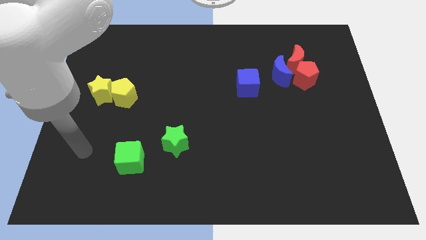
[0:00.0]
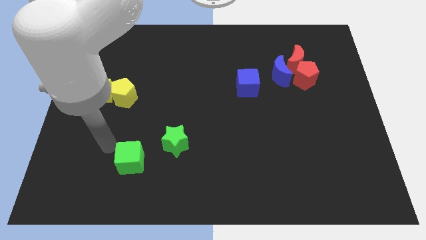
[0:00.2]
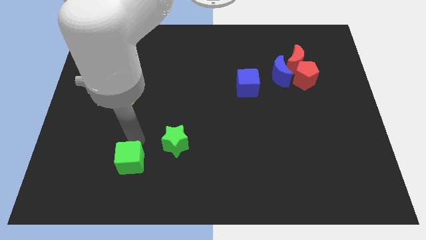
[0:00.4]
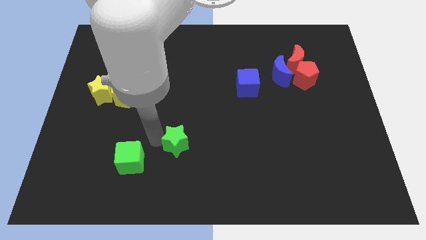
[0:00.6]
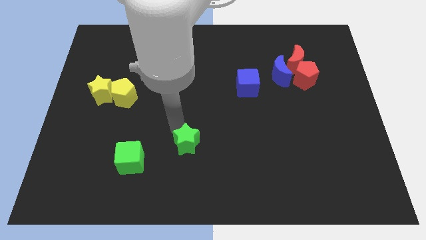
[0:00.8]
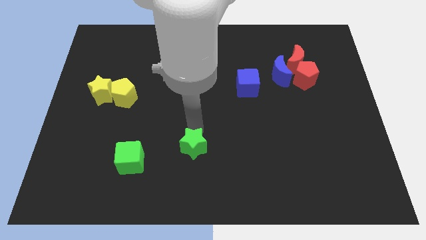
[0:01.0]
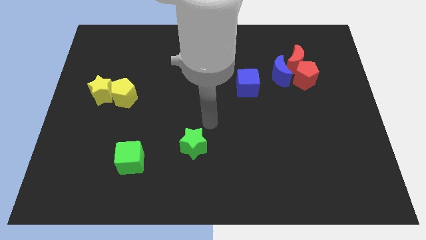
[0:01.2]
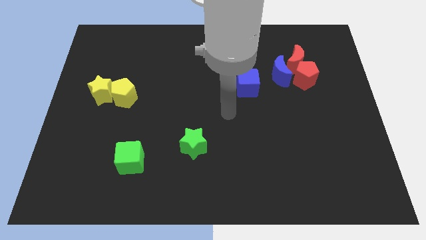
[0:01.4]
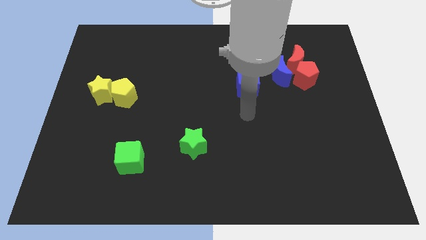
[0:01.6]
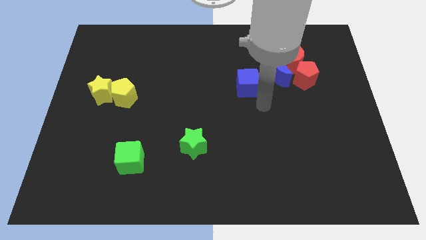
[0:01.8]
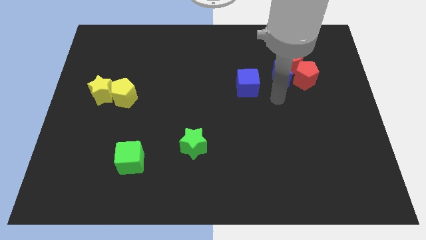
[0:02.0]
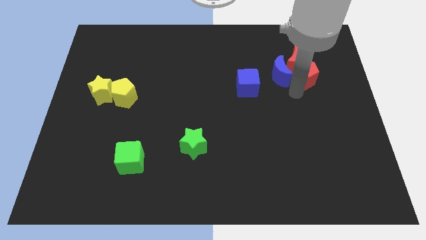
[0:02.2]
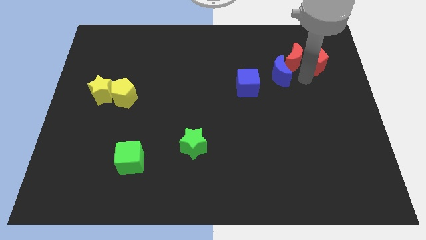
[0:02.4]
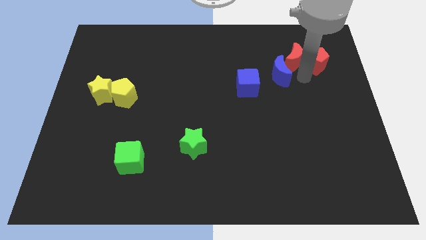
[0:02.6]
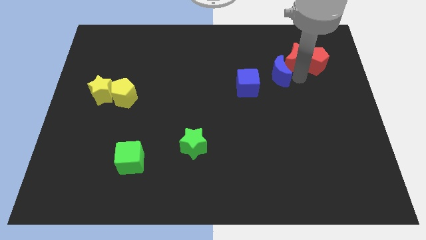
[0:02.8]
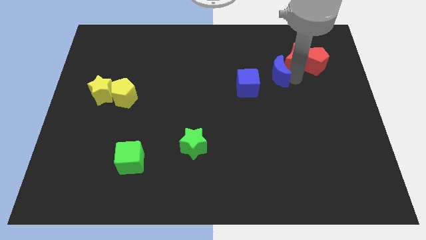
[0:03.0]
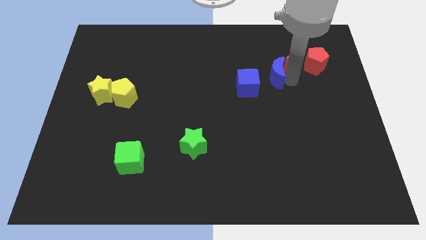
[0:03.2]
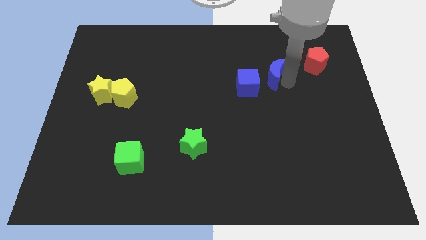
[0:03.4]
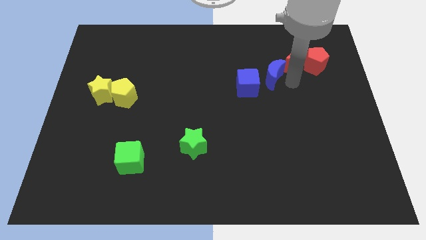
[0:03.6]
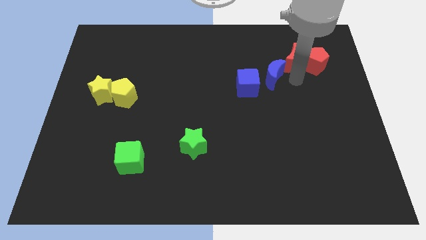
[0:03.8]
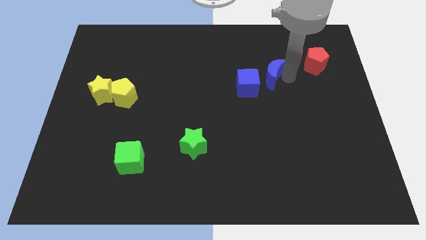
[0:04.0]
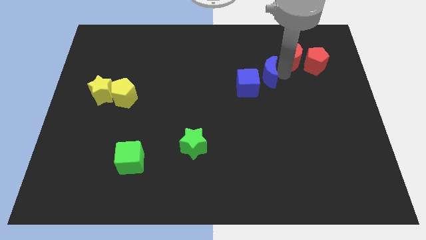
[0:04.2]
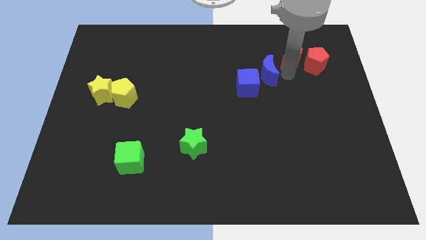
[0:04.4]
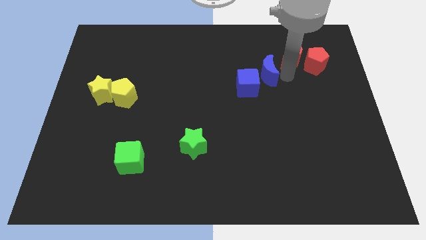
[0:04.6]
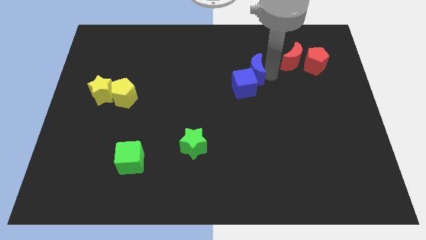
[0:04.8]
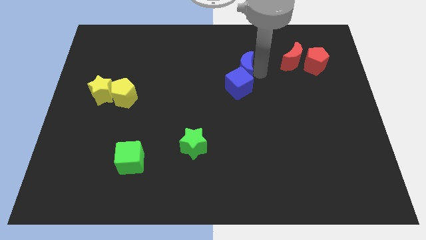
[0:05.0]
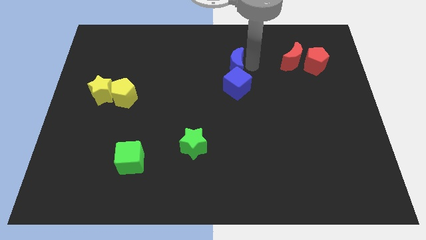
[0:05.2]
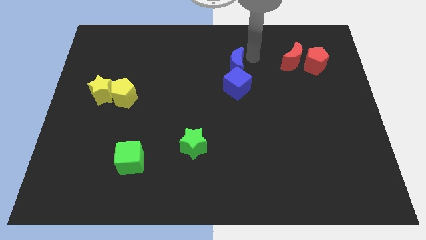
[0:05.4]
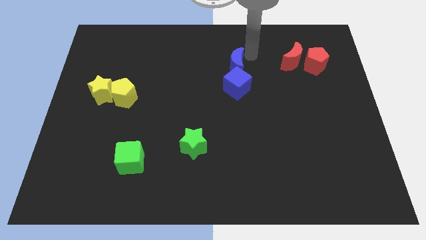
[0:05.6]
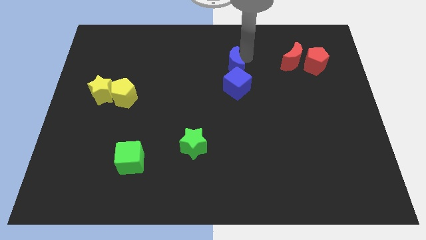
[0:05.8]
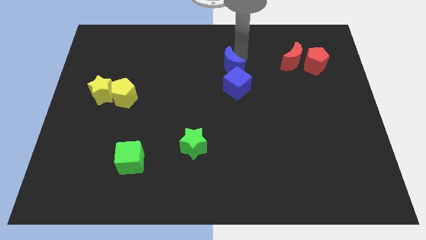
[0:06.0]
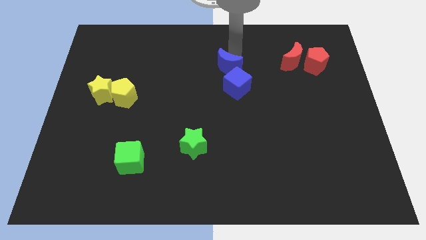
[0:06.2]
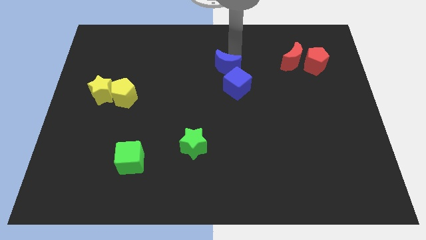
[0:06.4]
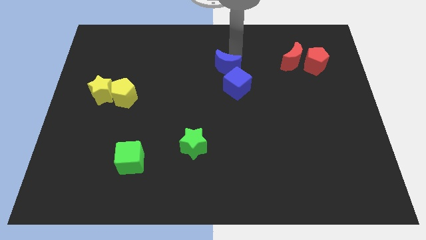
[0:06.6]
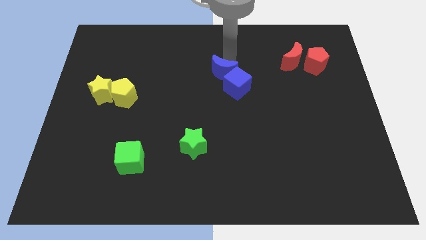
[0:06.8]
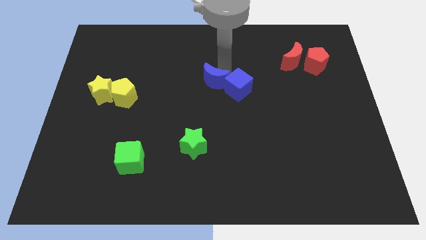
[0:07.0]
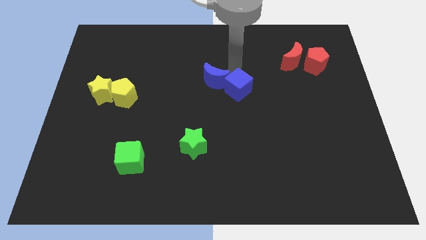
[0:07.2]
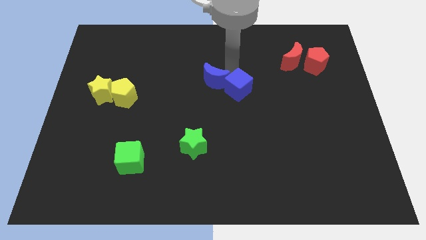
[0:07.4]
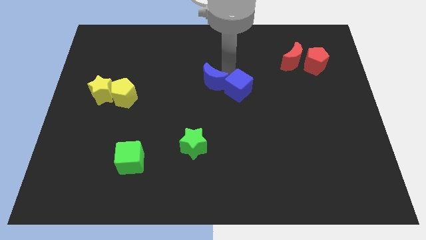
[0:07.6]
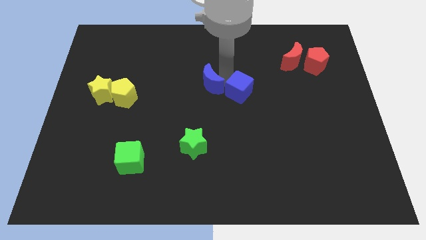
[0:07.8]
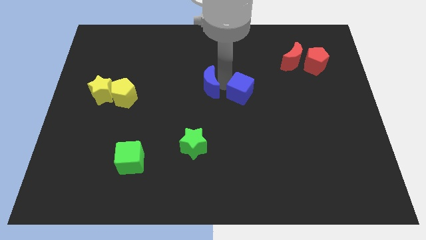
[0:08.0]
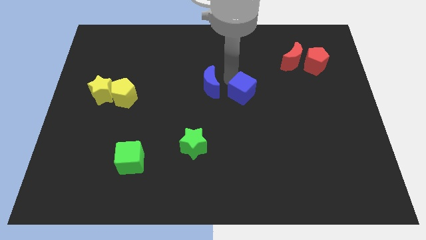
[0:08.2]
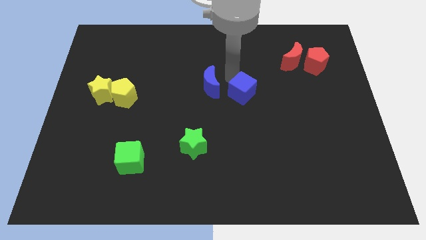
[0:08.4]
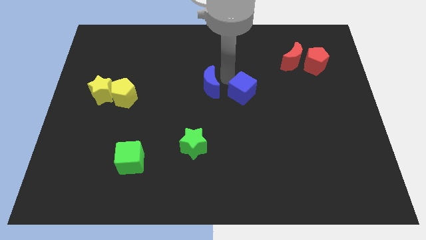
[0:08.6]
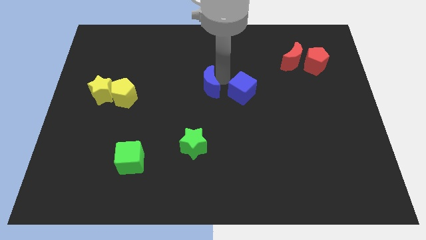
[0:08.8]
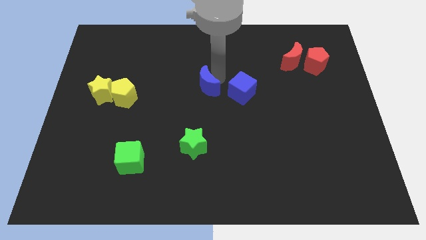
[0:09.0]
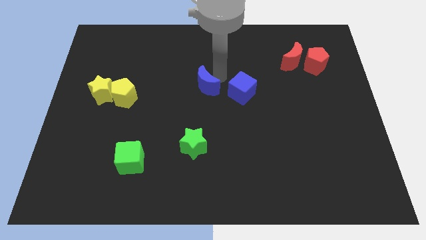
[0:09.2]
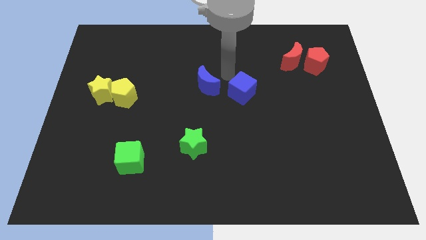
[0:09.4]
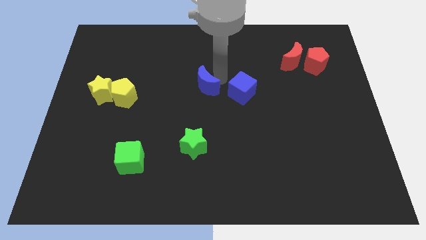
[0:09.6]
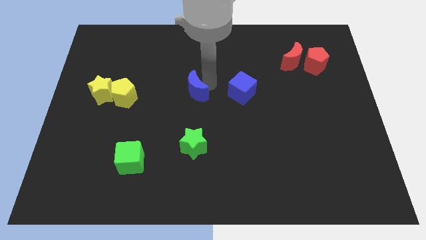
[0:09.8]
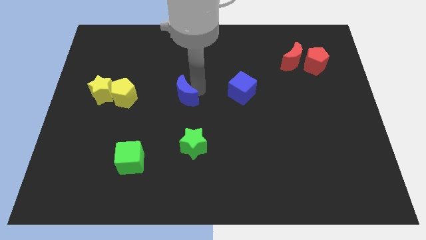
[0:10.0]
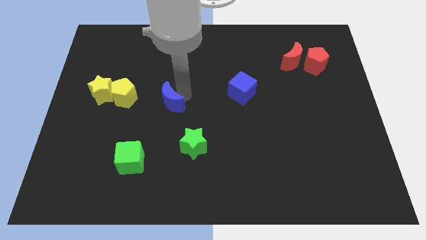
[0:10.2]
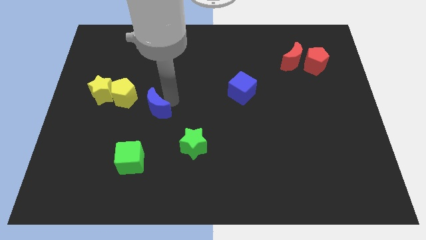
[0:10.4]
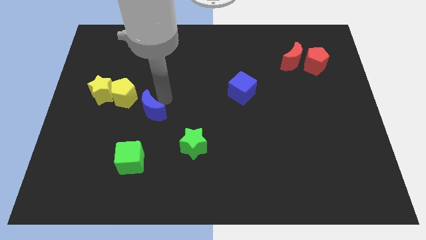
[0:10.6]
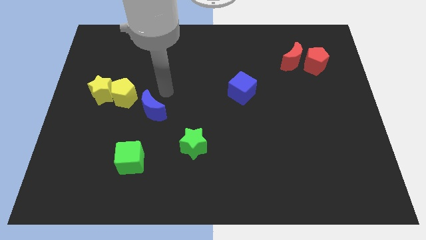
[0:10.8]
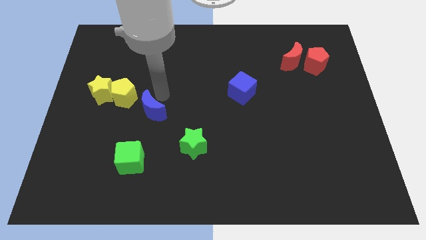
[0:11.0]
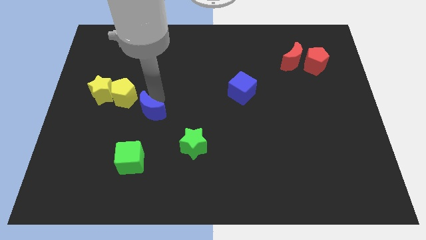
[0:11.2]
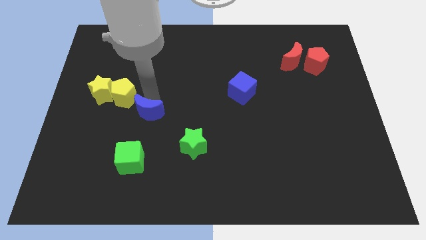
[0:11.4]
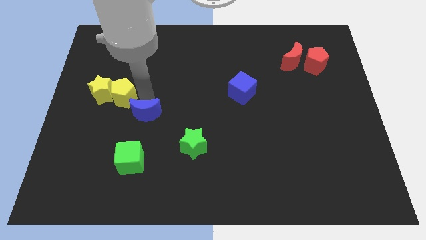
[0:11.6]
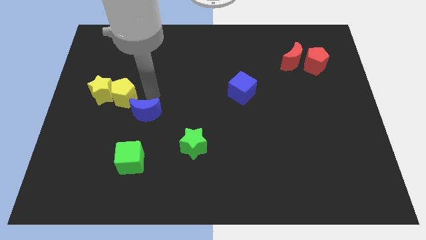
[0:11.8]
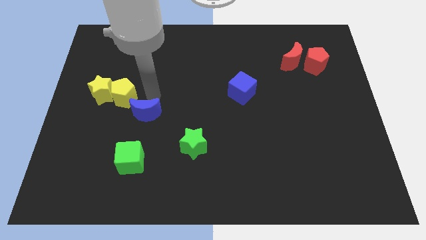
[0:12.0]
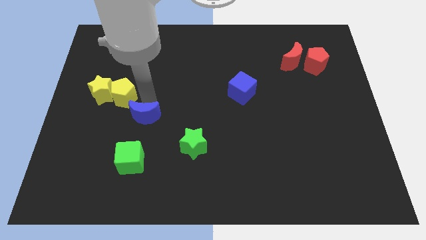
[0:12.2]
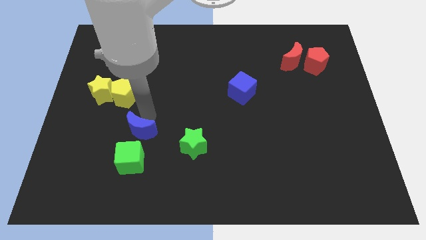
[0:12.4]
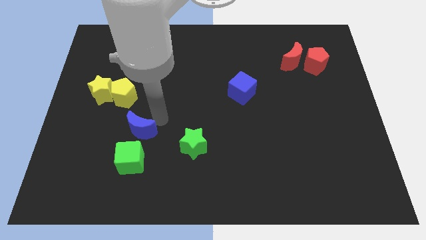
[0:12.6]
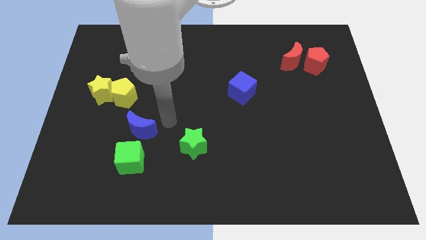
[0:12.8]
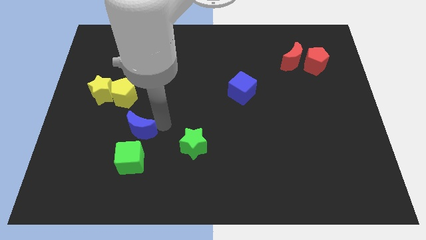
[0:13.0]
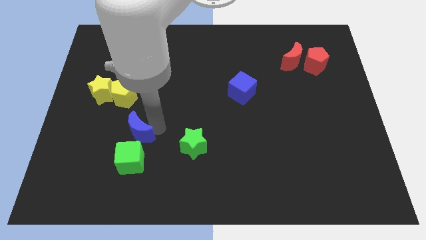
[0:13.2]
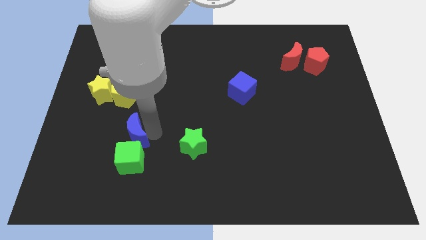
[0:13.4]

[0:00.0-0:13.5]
put the blue moon to the top left side of the green cube
